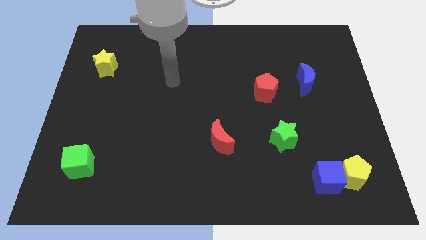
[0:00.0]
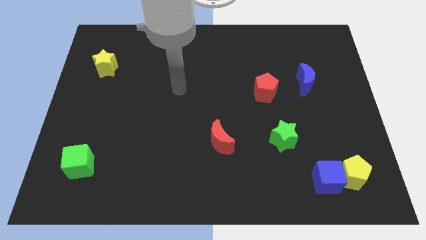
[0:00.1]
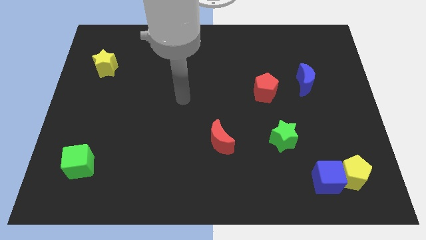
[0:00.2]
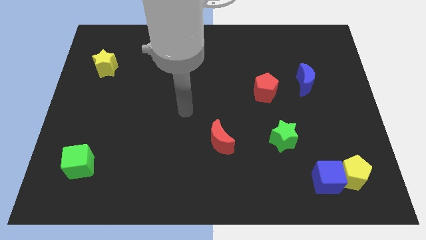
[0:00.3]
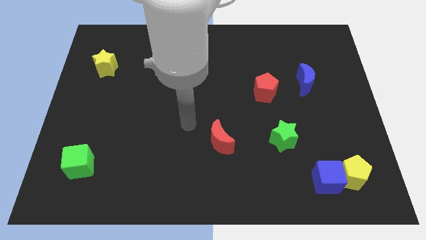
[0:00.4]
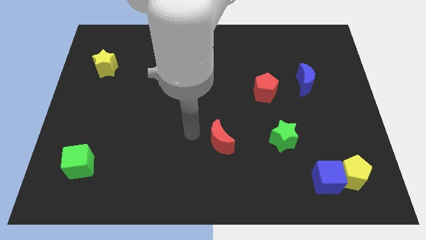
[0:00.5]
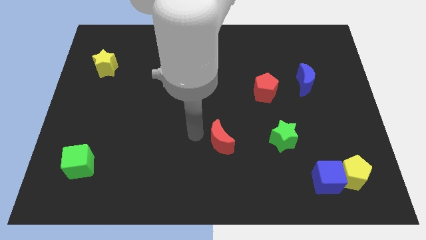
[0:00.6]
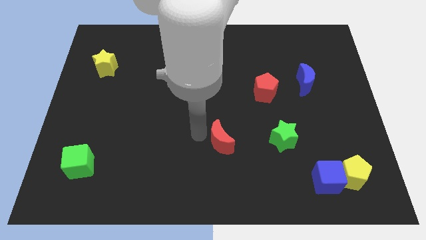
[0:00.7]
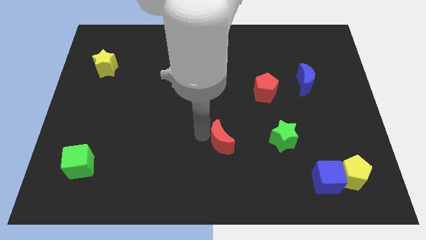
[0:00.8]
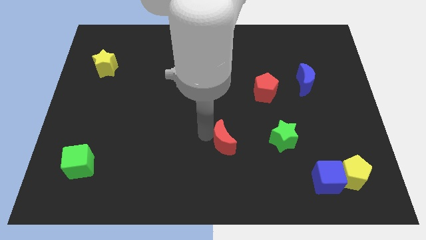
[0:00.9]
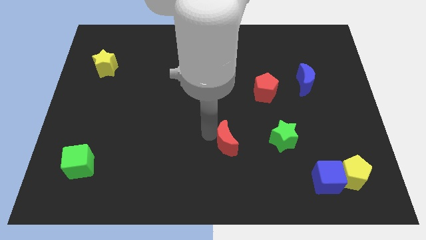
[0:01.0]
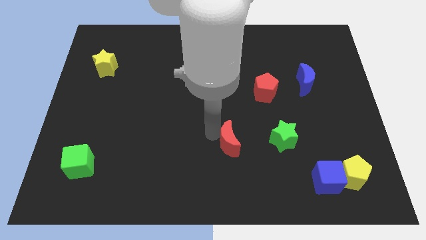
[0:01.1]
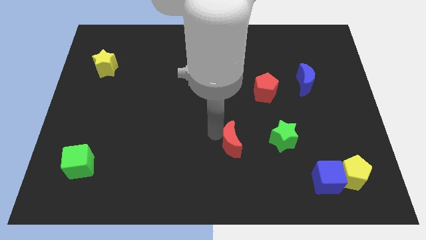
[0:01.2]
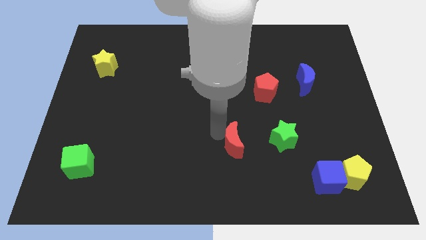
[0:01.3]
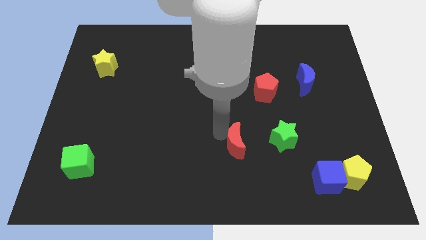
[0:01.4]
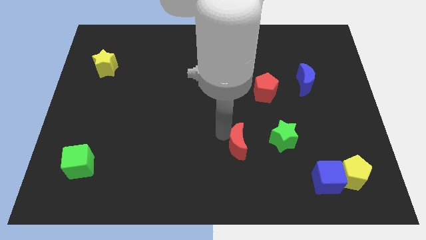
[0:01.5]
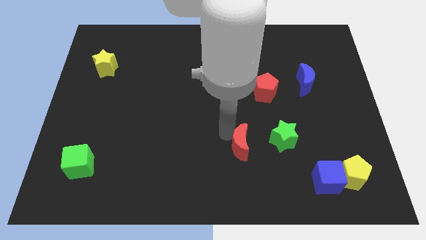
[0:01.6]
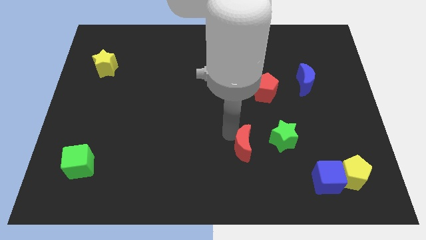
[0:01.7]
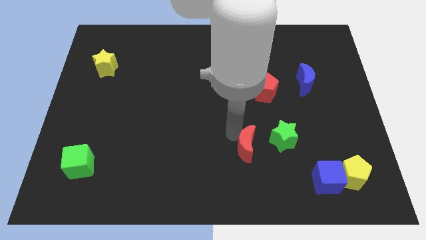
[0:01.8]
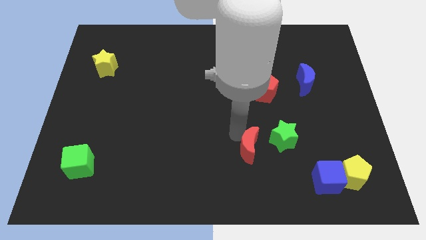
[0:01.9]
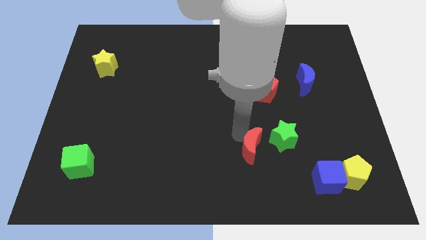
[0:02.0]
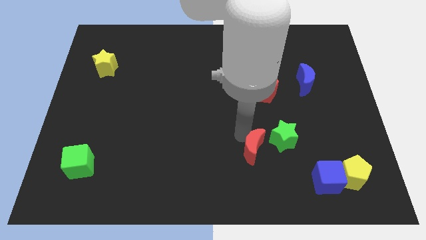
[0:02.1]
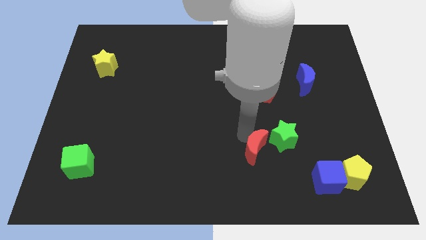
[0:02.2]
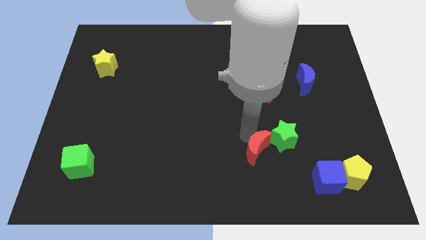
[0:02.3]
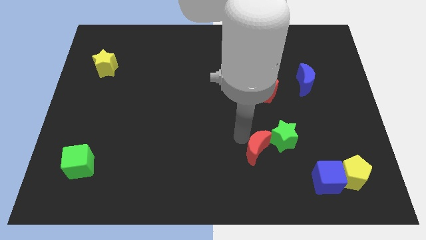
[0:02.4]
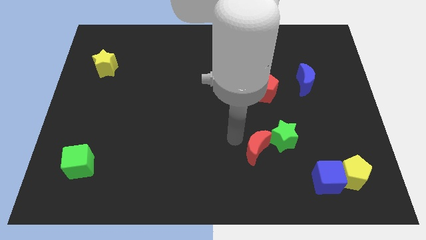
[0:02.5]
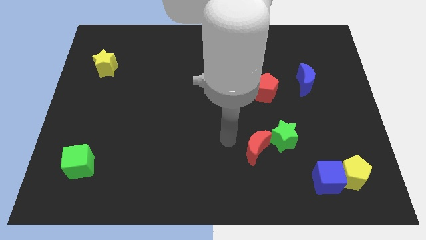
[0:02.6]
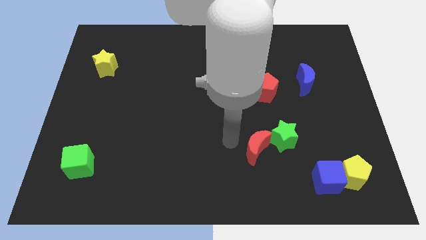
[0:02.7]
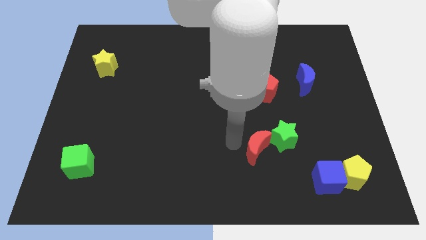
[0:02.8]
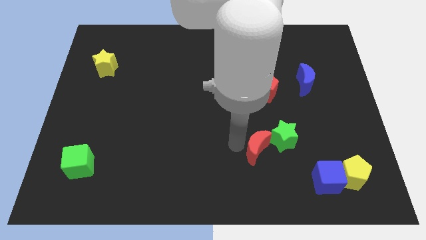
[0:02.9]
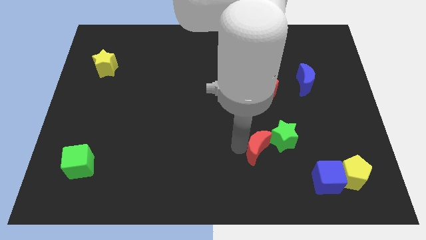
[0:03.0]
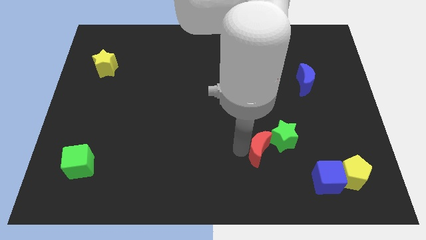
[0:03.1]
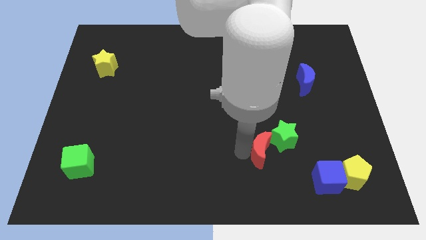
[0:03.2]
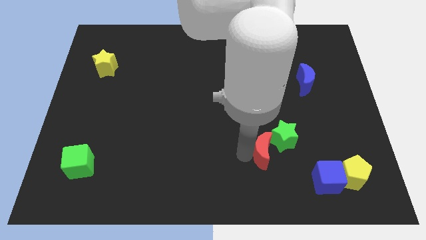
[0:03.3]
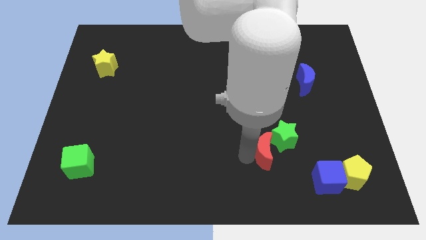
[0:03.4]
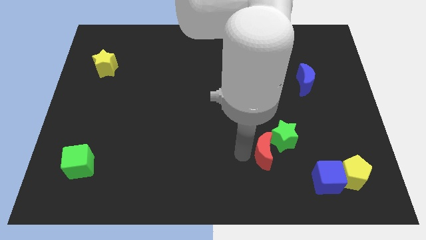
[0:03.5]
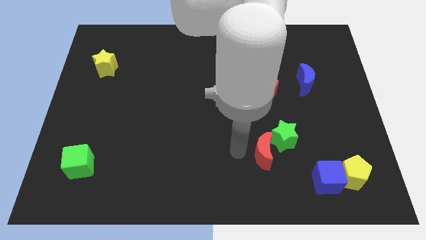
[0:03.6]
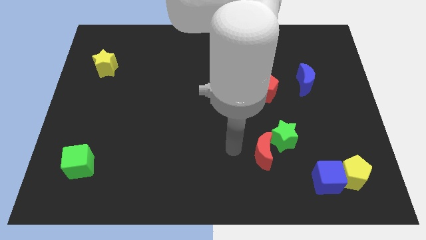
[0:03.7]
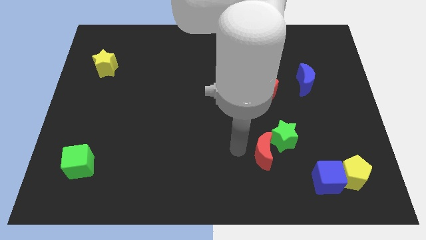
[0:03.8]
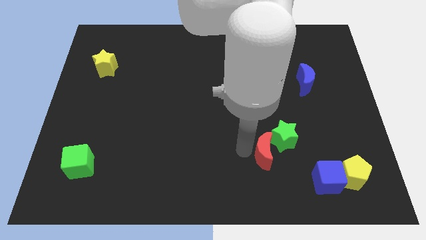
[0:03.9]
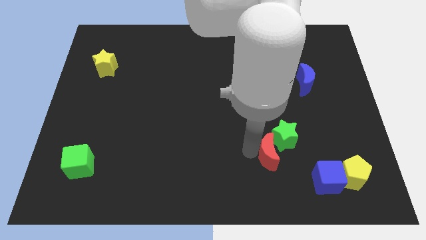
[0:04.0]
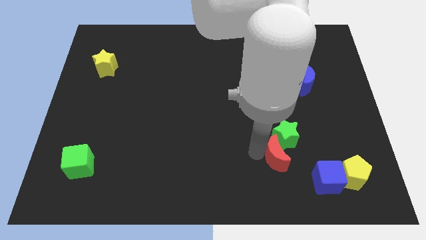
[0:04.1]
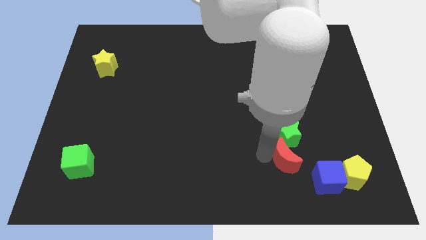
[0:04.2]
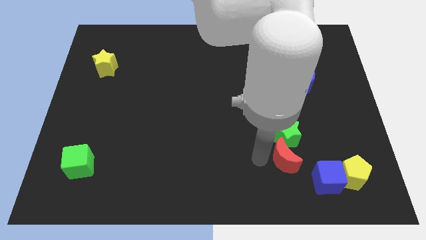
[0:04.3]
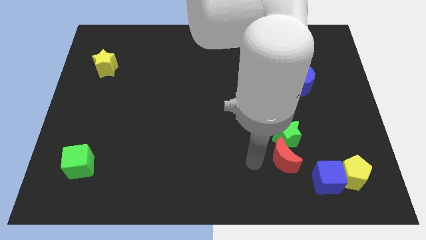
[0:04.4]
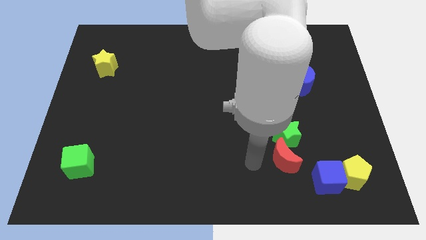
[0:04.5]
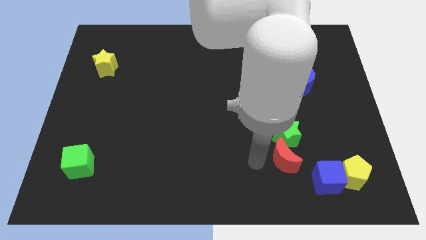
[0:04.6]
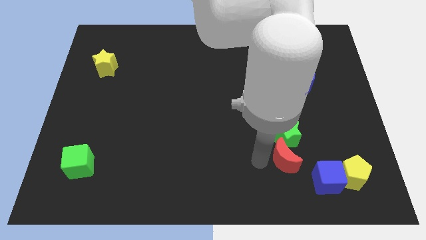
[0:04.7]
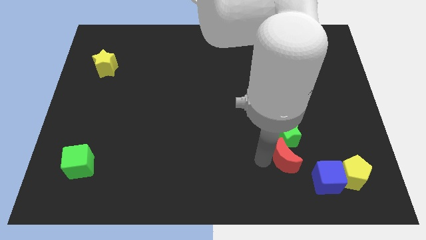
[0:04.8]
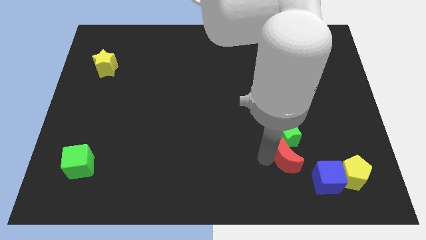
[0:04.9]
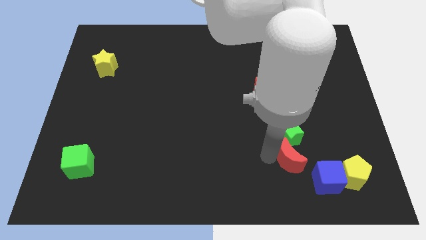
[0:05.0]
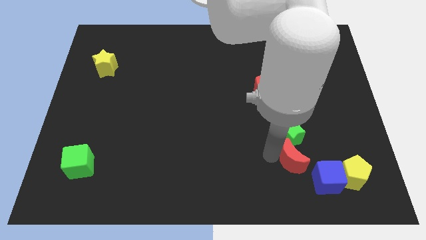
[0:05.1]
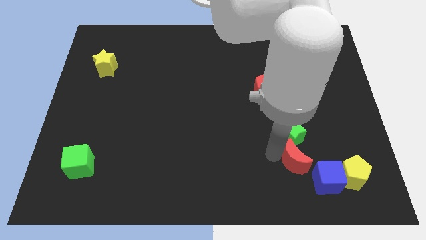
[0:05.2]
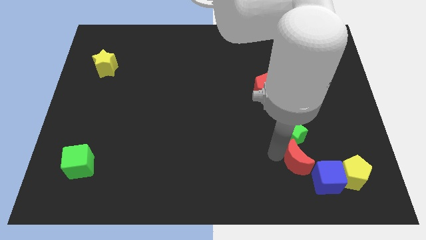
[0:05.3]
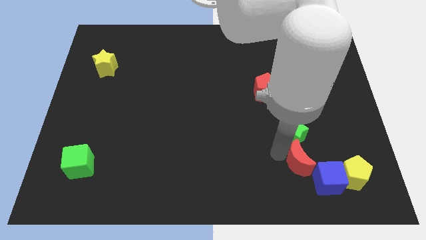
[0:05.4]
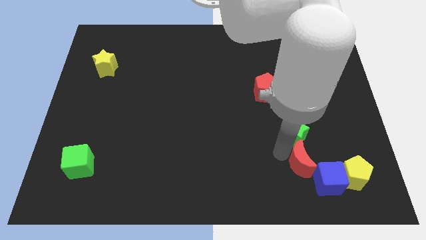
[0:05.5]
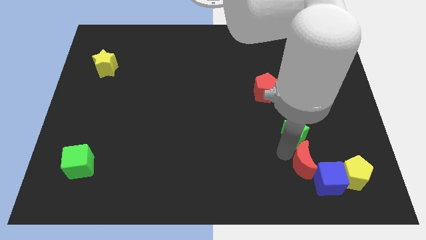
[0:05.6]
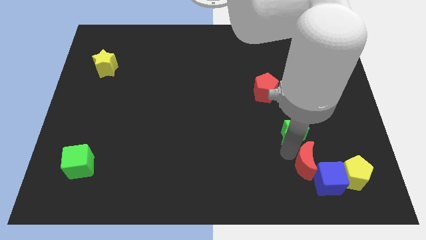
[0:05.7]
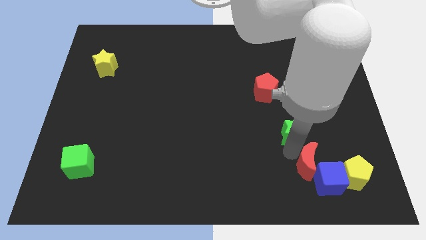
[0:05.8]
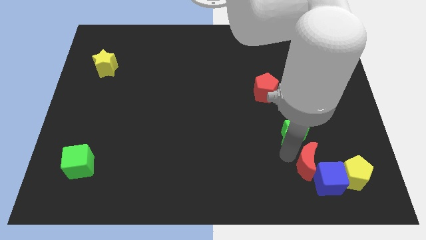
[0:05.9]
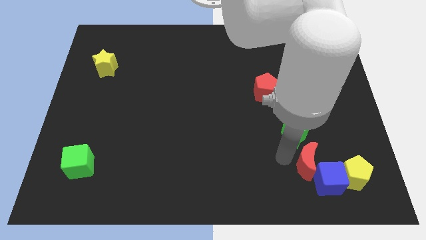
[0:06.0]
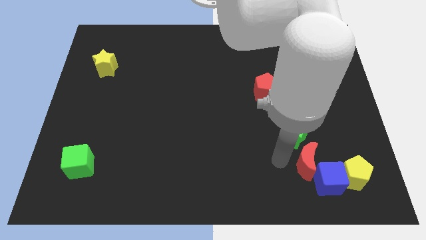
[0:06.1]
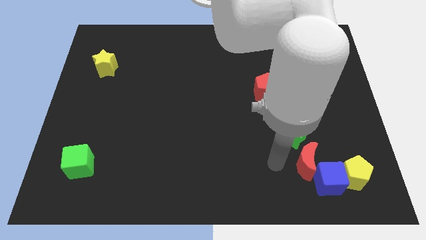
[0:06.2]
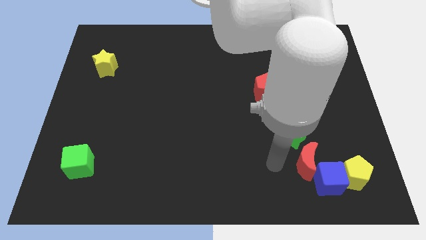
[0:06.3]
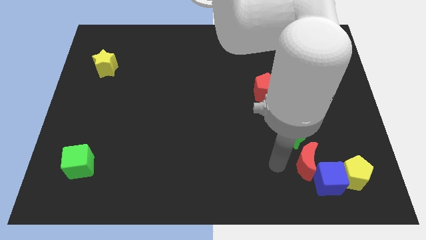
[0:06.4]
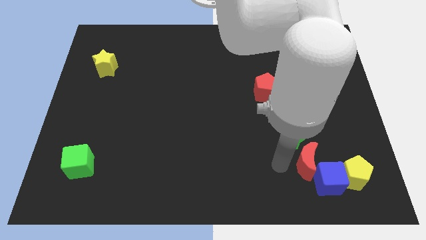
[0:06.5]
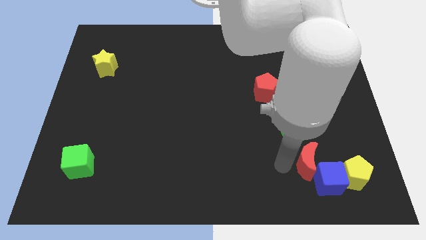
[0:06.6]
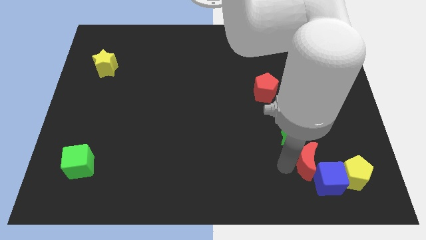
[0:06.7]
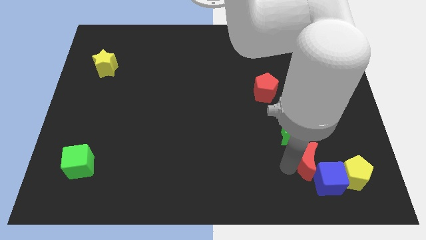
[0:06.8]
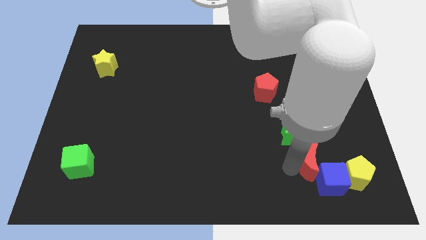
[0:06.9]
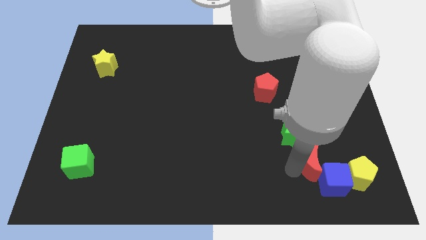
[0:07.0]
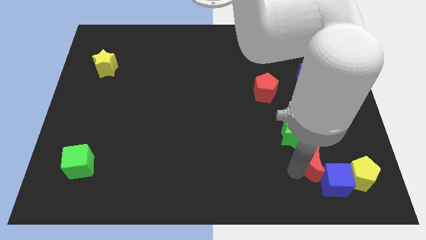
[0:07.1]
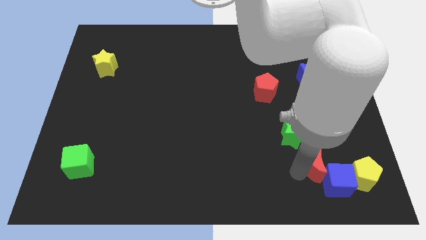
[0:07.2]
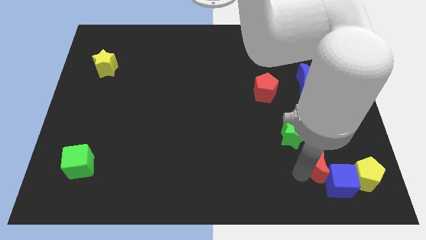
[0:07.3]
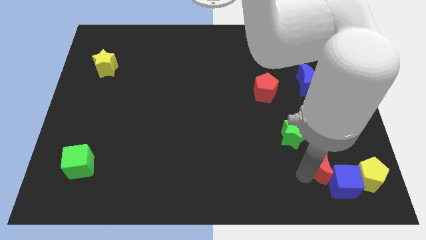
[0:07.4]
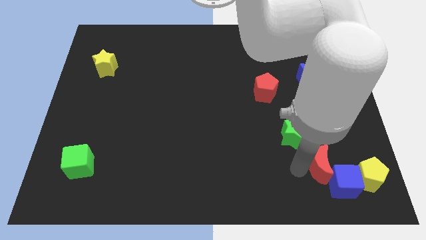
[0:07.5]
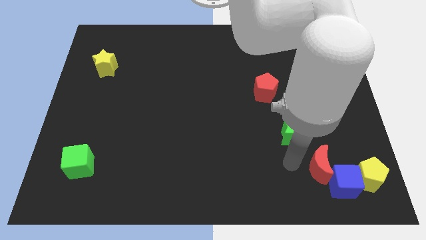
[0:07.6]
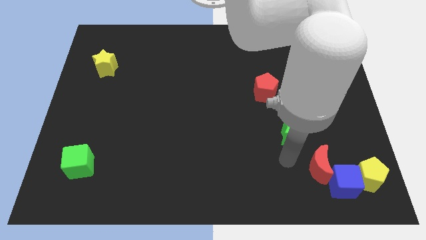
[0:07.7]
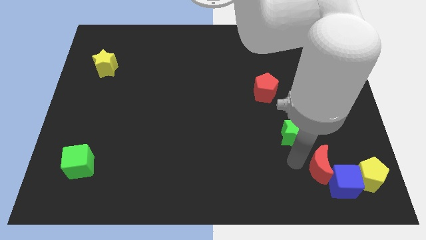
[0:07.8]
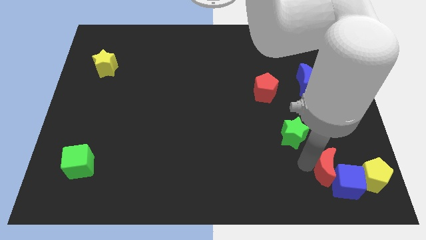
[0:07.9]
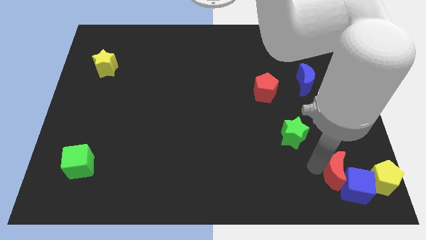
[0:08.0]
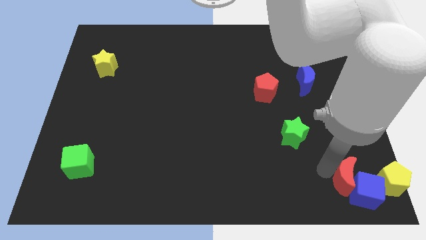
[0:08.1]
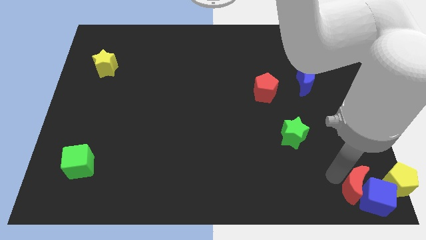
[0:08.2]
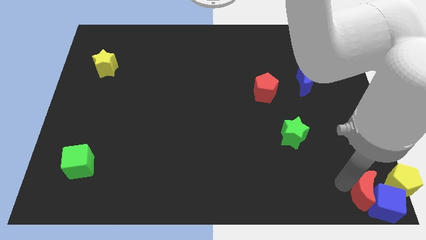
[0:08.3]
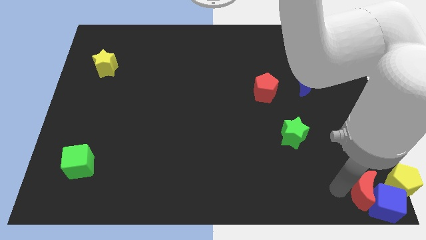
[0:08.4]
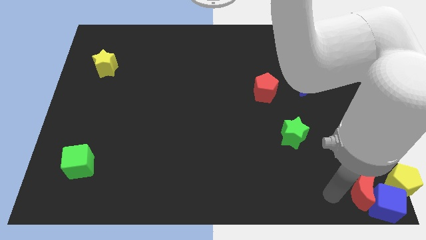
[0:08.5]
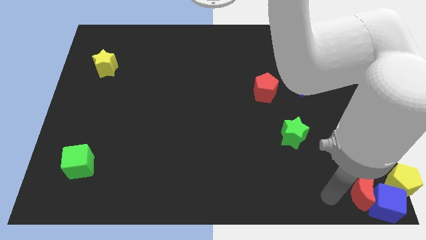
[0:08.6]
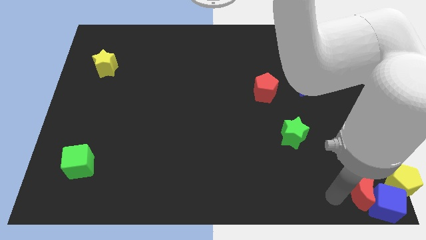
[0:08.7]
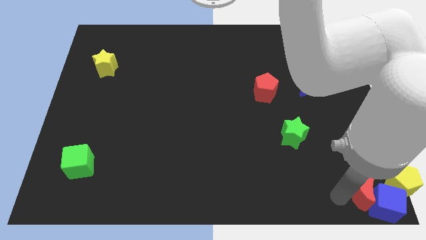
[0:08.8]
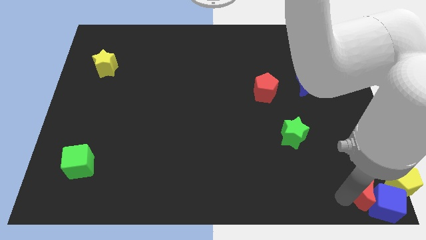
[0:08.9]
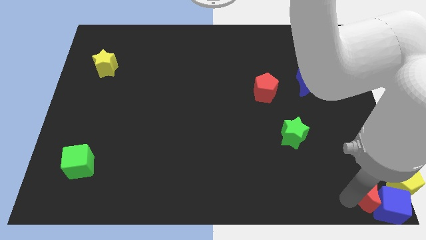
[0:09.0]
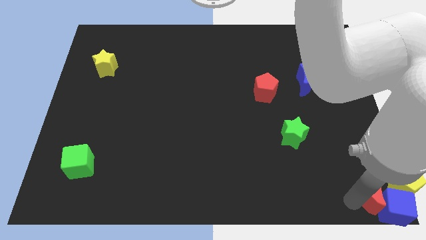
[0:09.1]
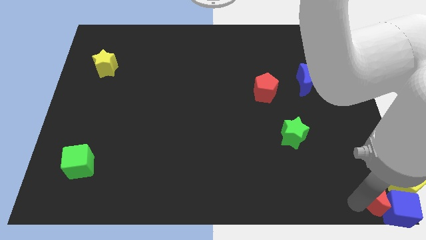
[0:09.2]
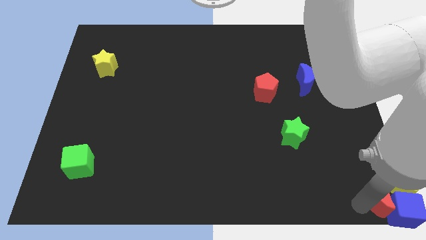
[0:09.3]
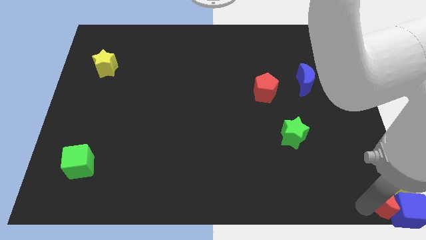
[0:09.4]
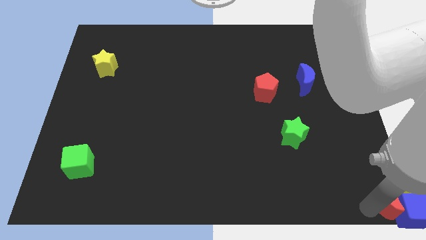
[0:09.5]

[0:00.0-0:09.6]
slide the red moon to the yellow pentagon
